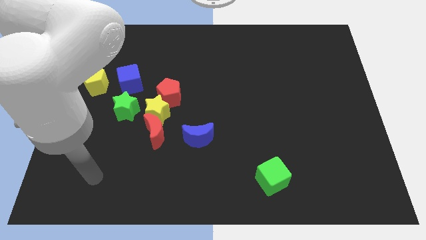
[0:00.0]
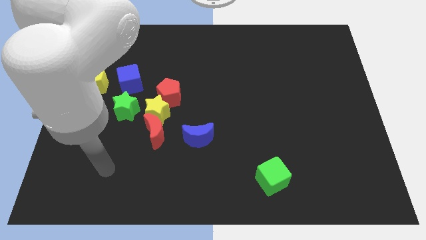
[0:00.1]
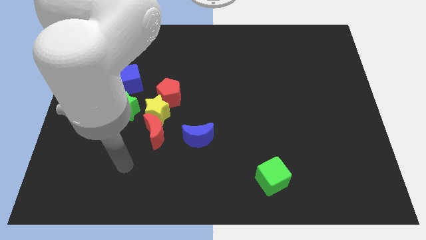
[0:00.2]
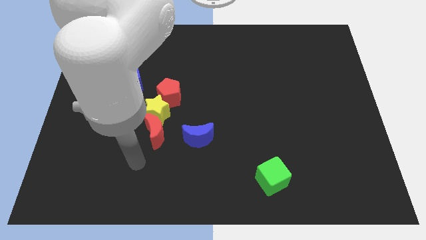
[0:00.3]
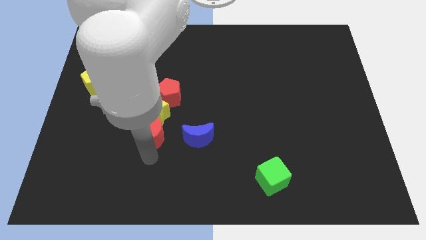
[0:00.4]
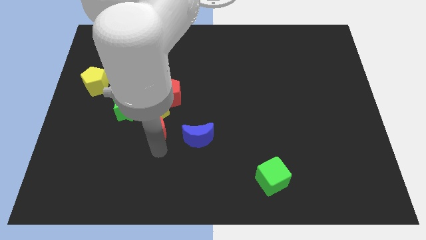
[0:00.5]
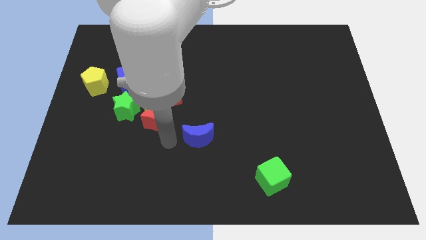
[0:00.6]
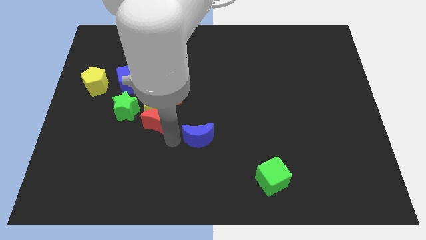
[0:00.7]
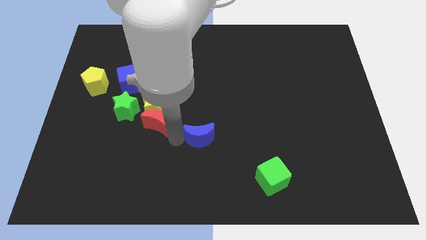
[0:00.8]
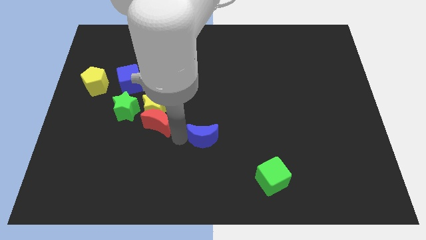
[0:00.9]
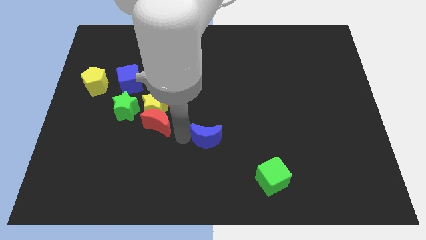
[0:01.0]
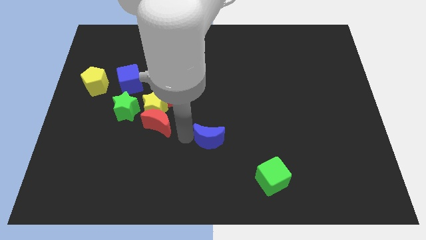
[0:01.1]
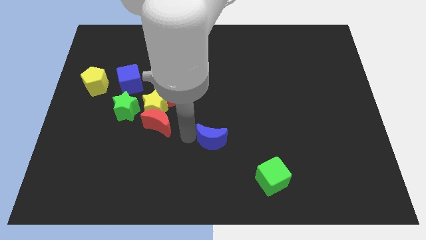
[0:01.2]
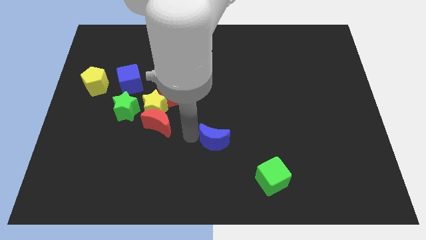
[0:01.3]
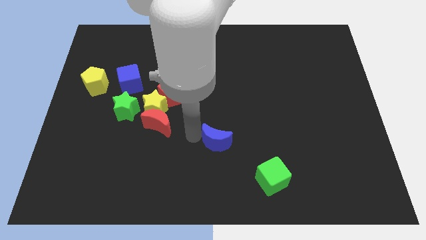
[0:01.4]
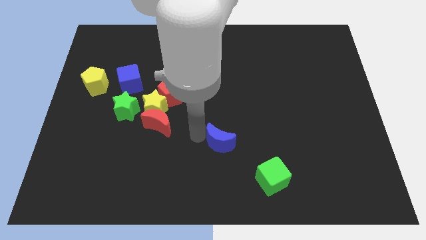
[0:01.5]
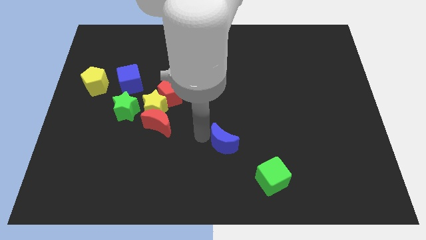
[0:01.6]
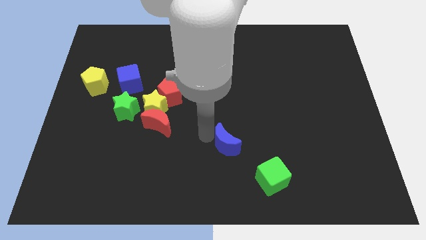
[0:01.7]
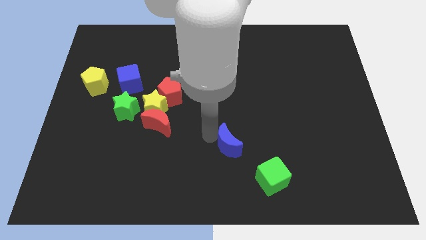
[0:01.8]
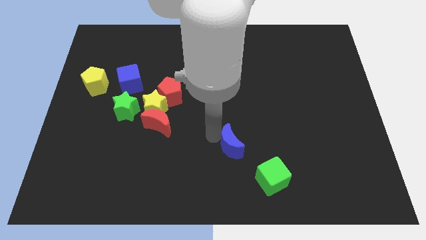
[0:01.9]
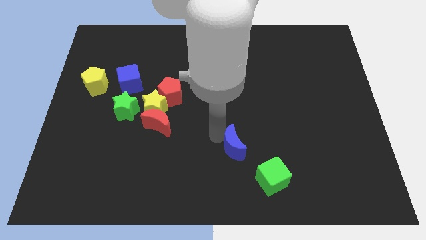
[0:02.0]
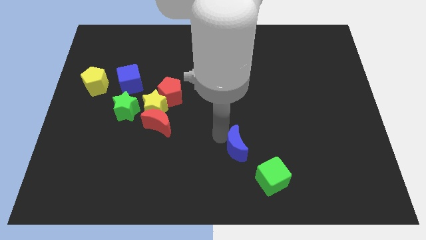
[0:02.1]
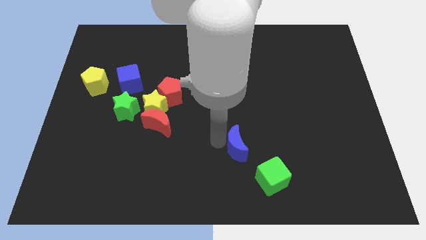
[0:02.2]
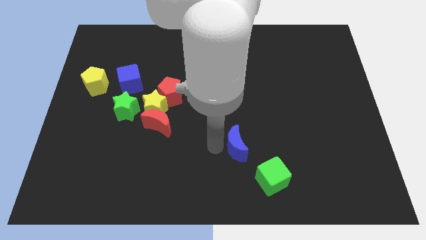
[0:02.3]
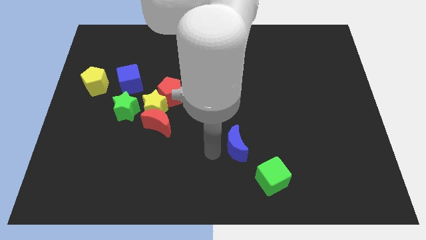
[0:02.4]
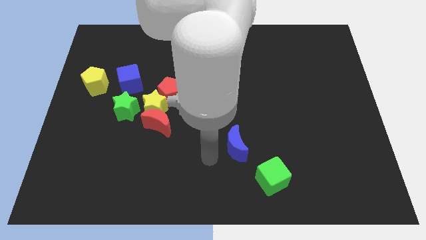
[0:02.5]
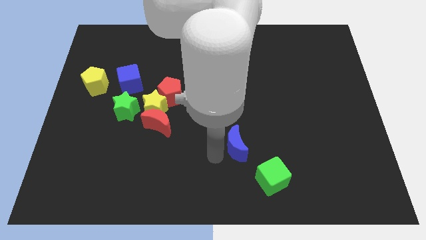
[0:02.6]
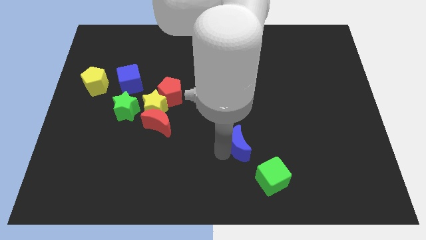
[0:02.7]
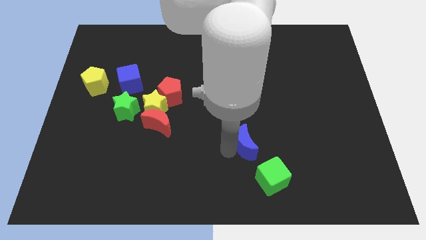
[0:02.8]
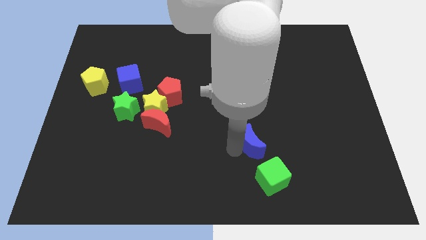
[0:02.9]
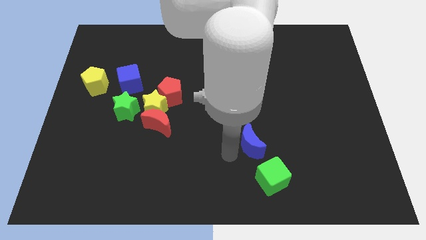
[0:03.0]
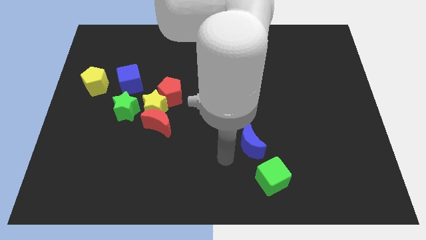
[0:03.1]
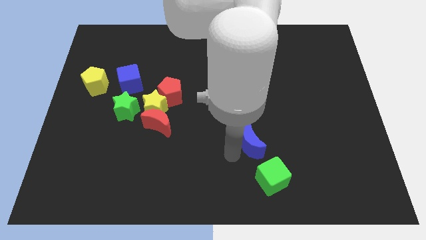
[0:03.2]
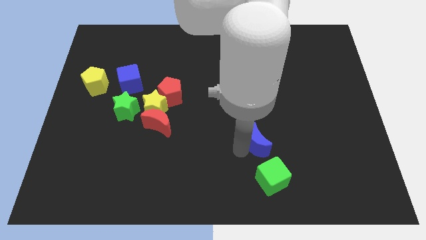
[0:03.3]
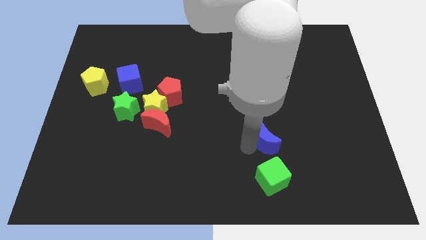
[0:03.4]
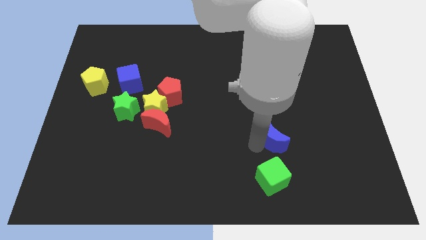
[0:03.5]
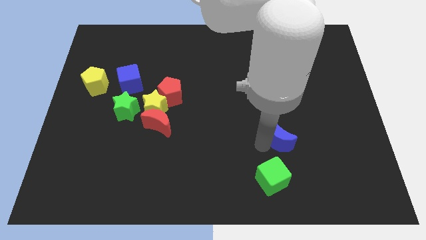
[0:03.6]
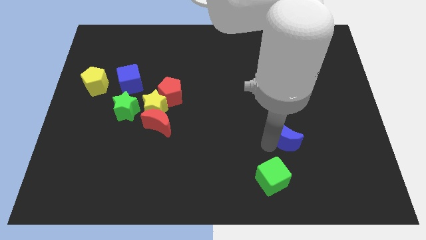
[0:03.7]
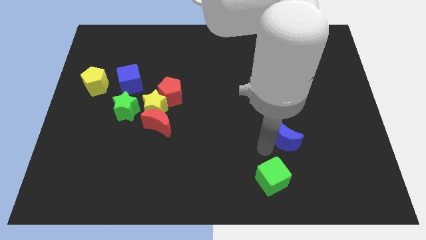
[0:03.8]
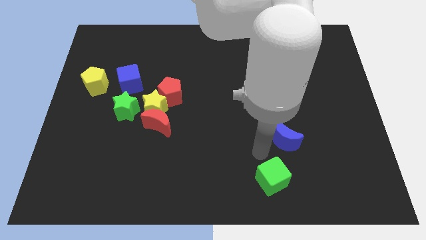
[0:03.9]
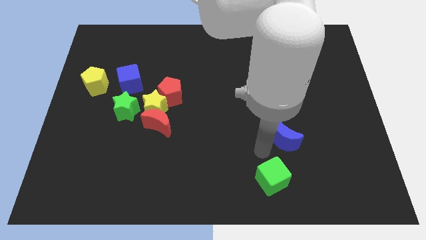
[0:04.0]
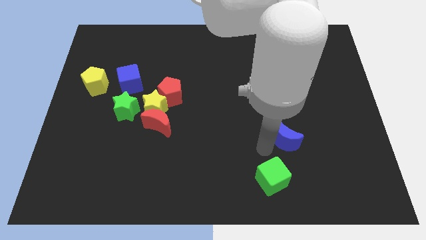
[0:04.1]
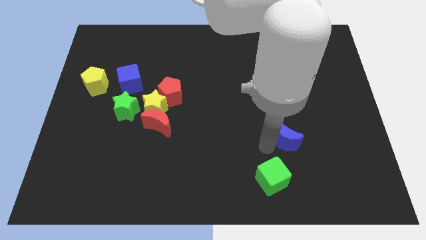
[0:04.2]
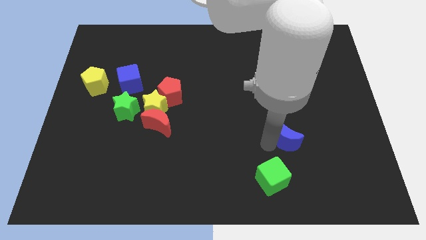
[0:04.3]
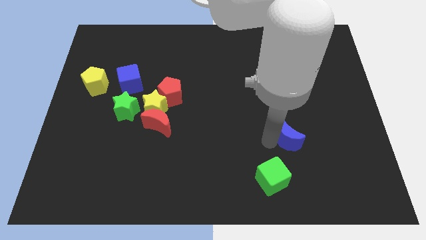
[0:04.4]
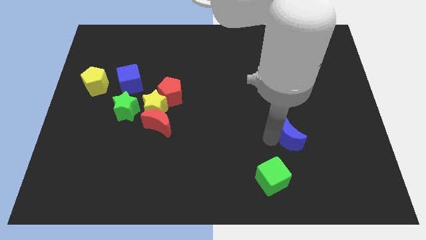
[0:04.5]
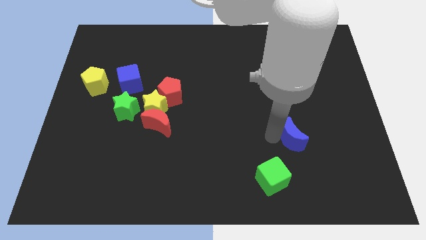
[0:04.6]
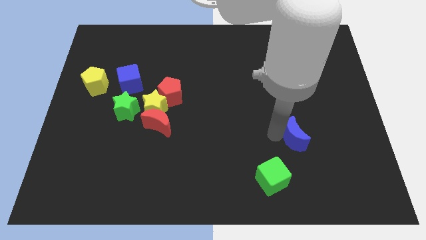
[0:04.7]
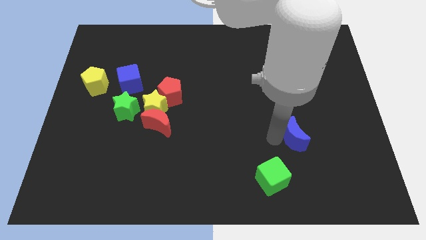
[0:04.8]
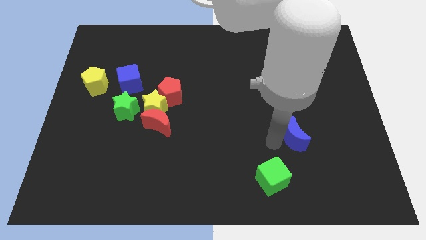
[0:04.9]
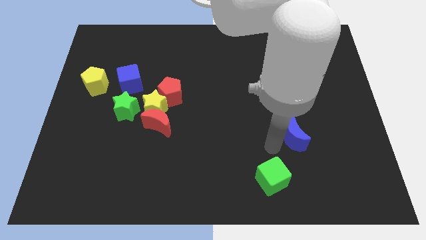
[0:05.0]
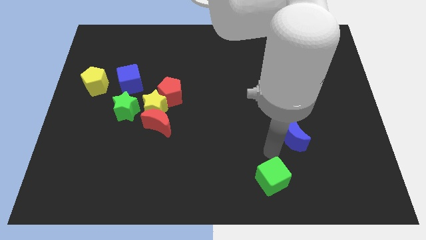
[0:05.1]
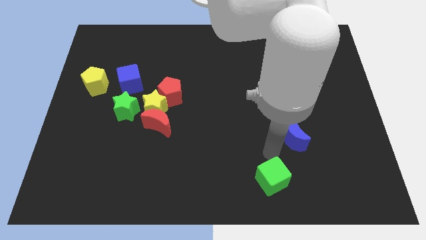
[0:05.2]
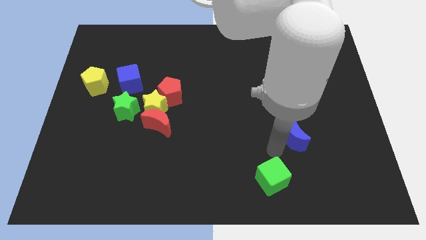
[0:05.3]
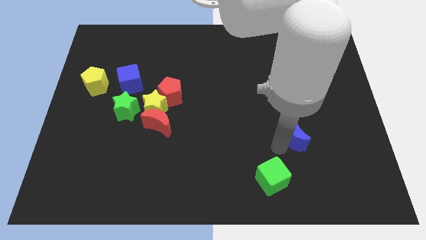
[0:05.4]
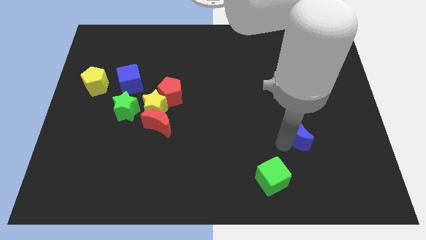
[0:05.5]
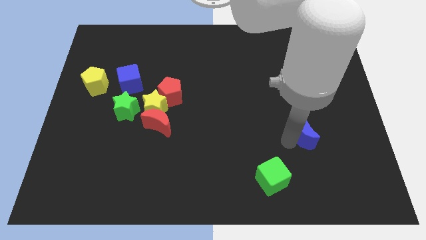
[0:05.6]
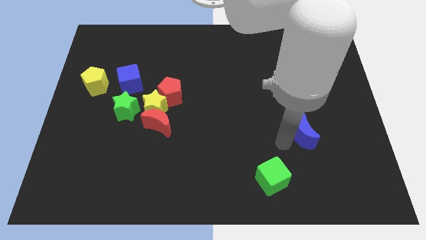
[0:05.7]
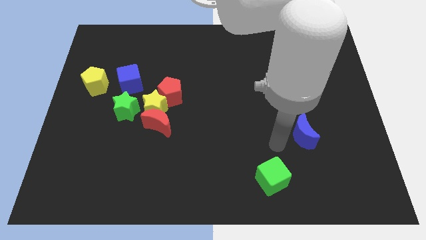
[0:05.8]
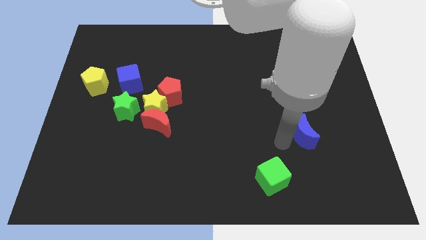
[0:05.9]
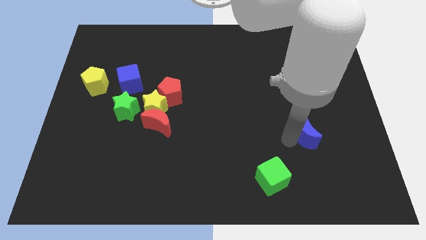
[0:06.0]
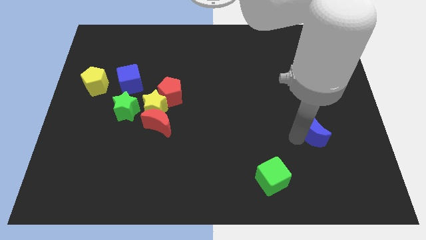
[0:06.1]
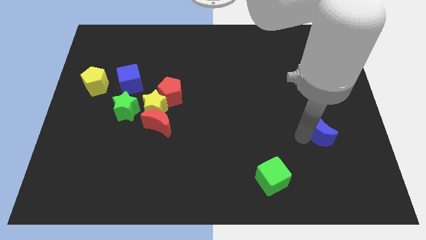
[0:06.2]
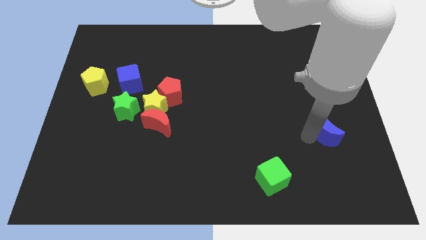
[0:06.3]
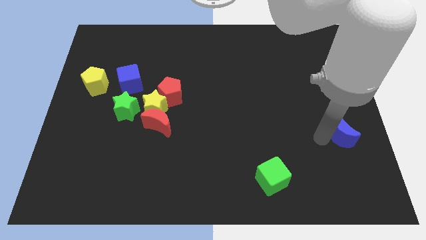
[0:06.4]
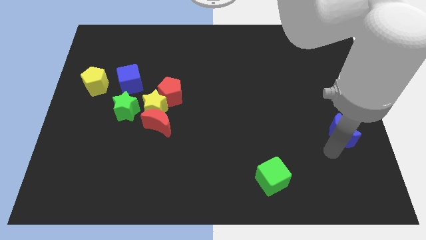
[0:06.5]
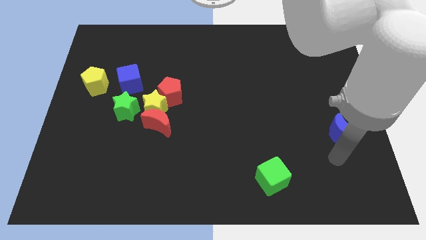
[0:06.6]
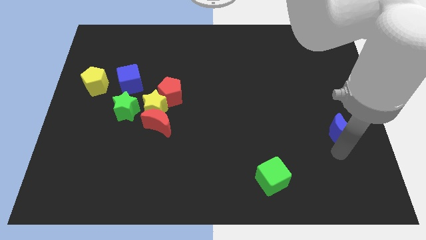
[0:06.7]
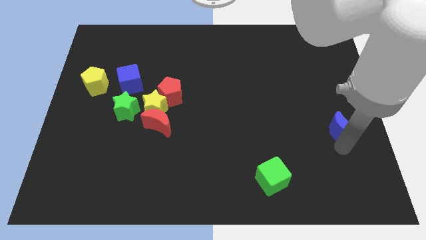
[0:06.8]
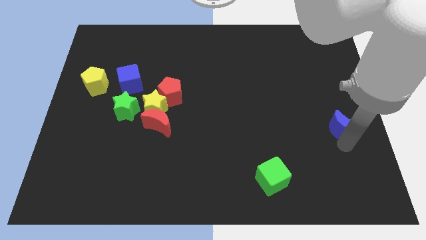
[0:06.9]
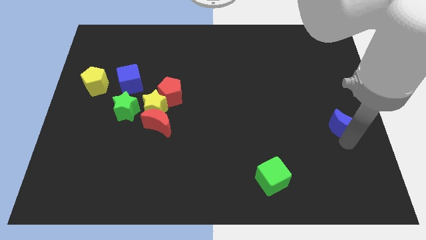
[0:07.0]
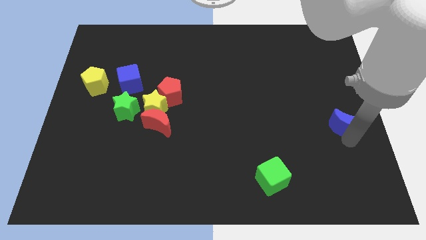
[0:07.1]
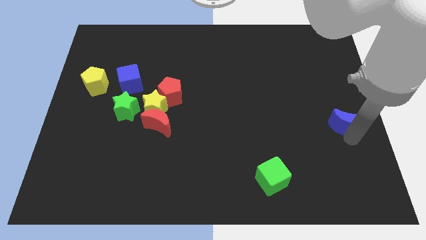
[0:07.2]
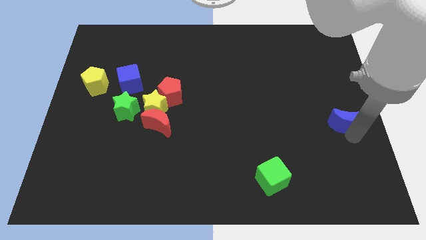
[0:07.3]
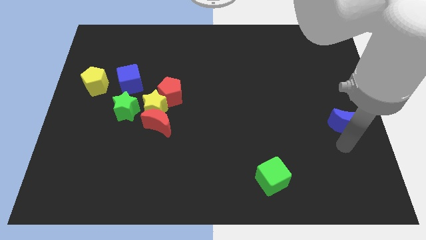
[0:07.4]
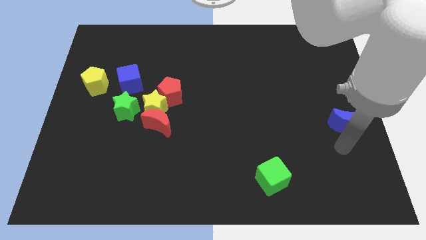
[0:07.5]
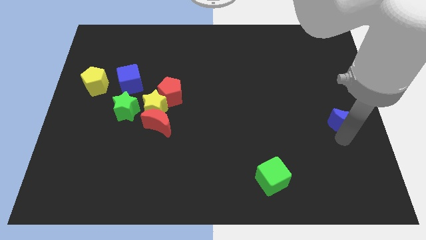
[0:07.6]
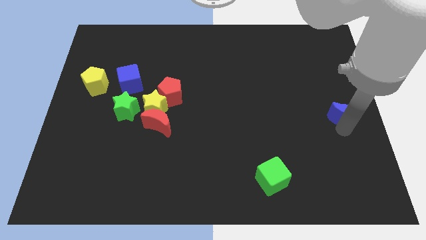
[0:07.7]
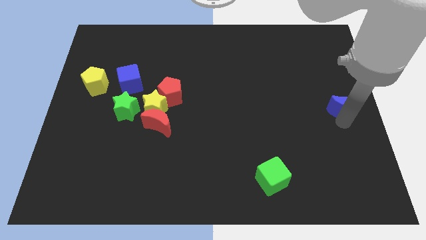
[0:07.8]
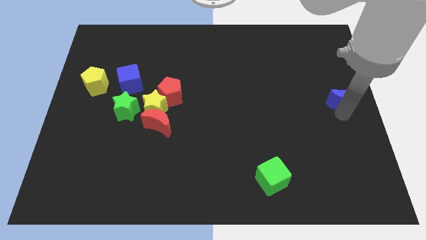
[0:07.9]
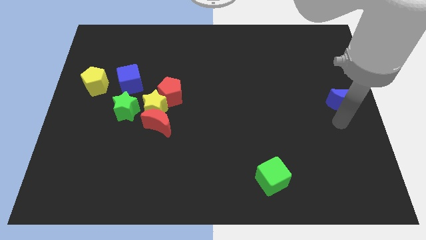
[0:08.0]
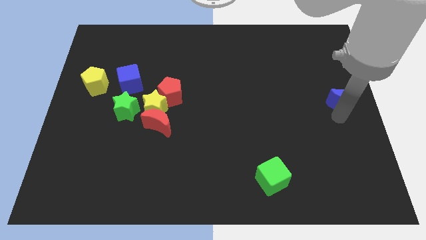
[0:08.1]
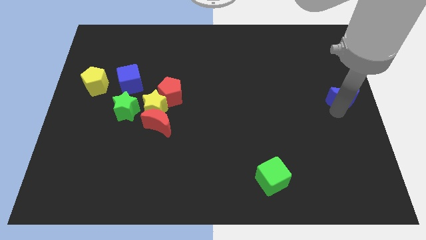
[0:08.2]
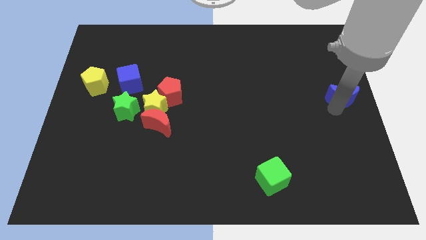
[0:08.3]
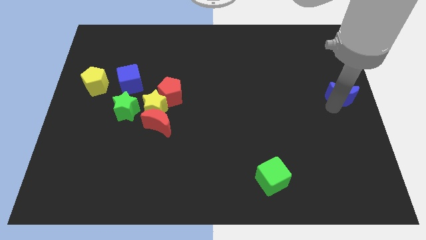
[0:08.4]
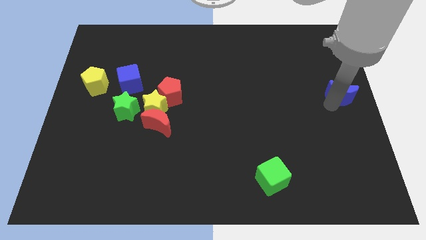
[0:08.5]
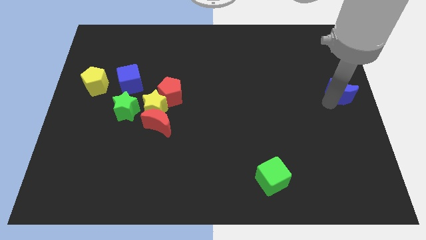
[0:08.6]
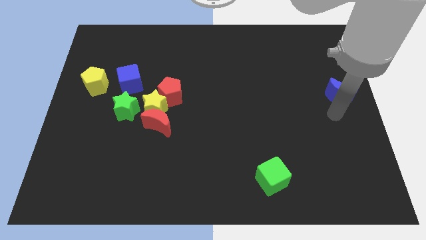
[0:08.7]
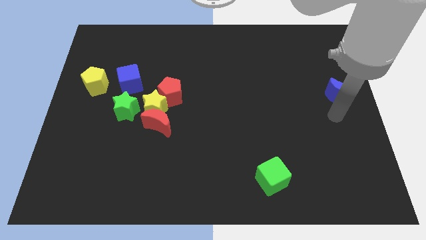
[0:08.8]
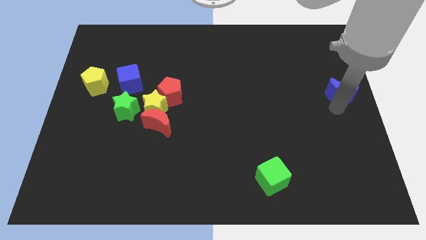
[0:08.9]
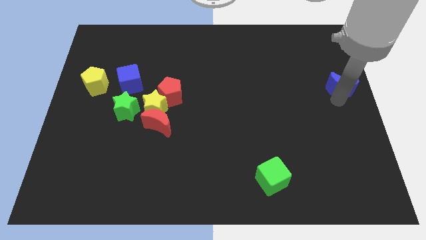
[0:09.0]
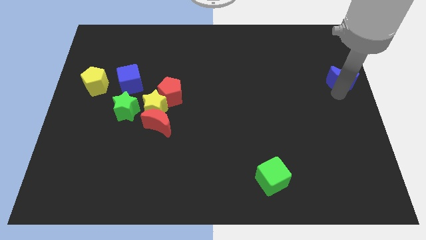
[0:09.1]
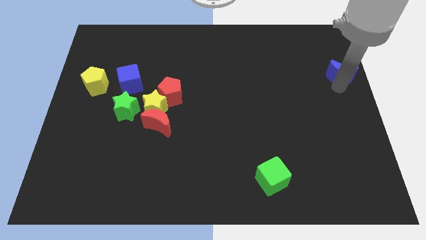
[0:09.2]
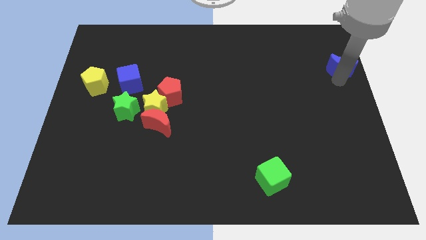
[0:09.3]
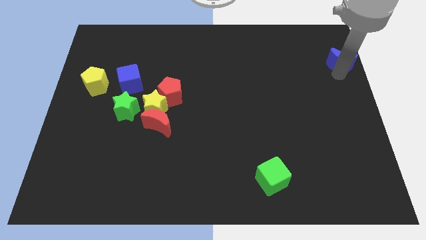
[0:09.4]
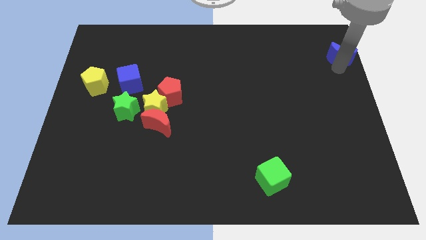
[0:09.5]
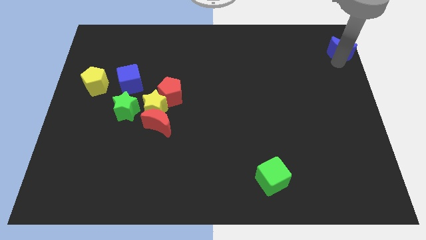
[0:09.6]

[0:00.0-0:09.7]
put the blue moon to the top right
